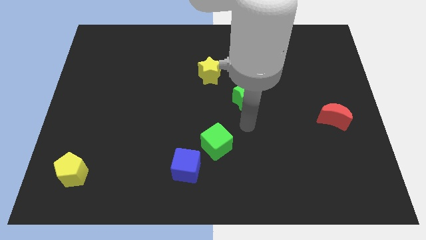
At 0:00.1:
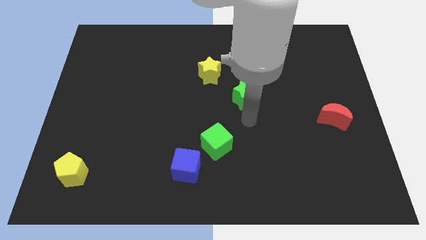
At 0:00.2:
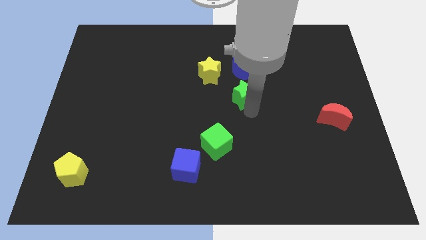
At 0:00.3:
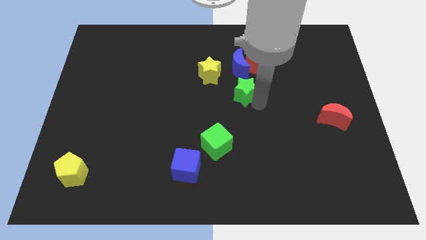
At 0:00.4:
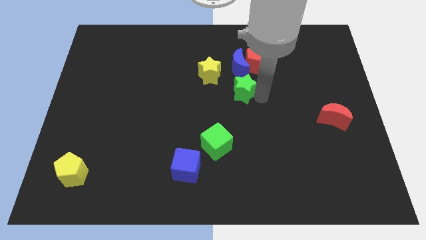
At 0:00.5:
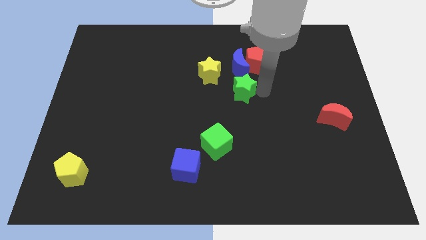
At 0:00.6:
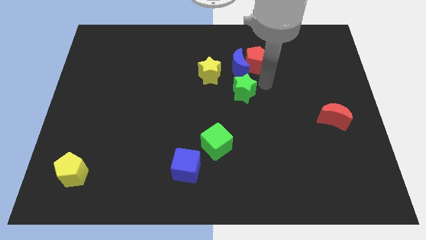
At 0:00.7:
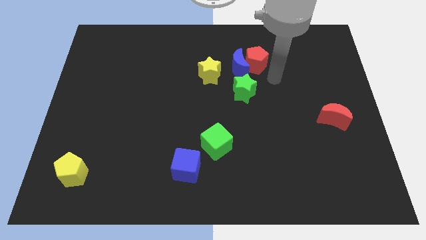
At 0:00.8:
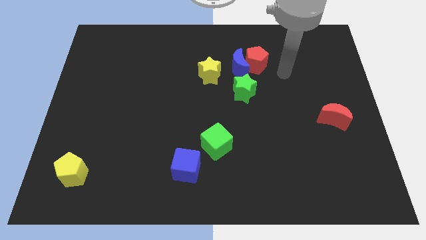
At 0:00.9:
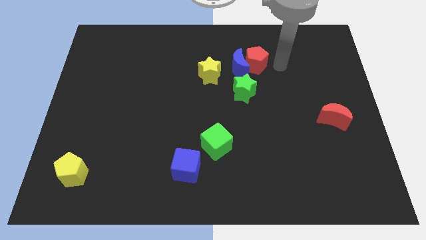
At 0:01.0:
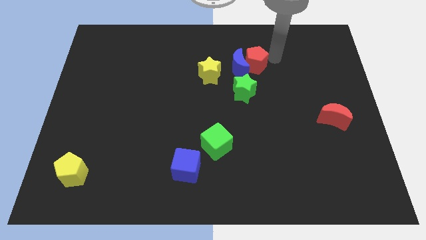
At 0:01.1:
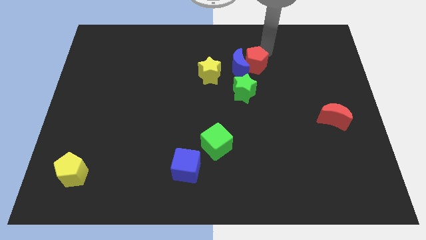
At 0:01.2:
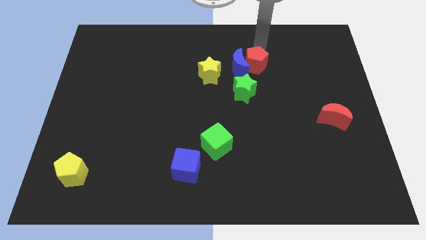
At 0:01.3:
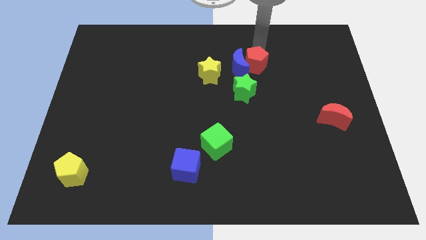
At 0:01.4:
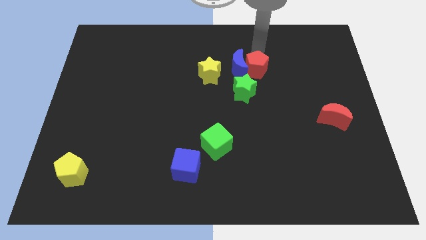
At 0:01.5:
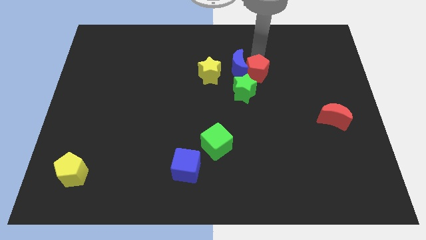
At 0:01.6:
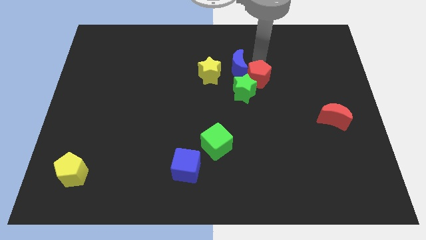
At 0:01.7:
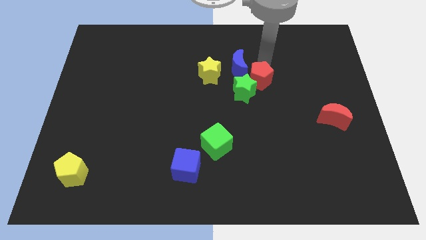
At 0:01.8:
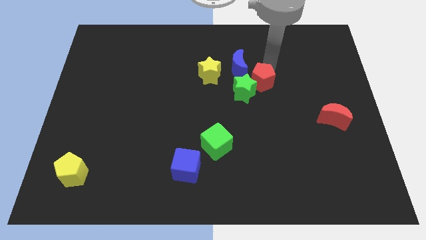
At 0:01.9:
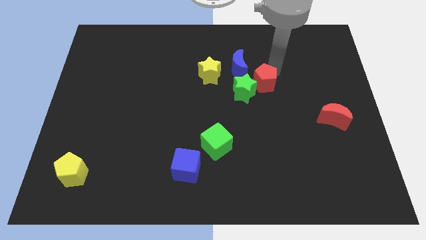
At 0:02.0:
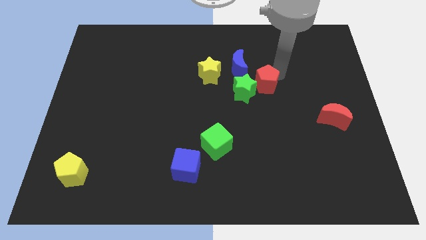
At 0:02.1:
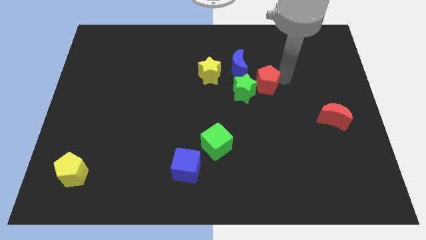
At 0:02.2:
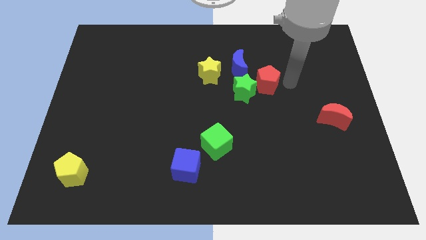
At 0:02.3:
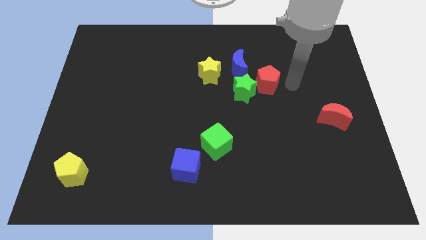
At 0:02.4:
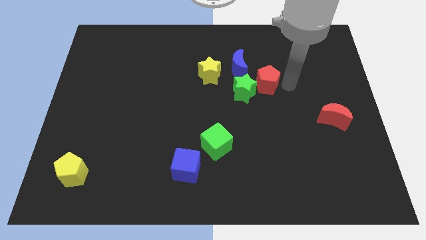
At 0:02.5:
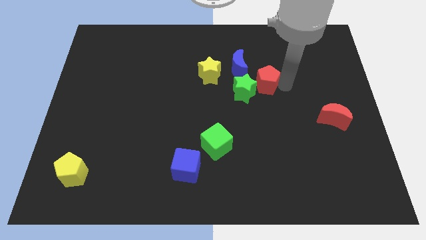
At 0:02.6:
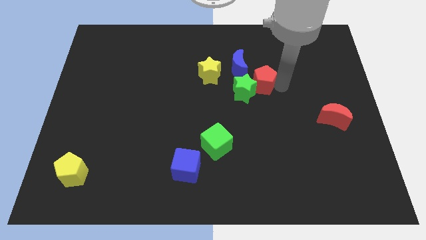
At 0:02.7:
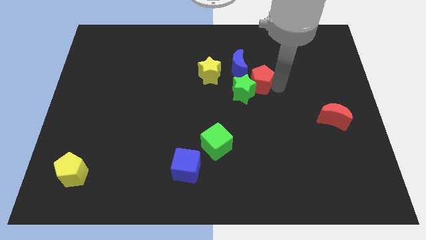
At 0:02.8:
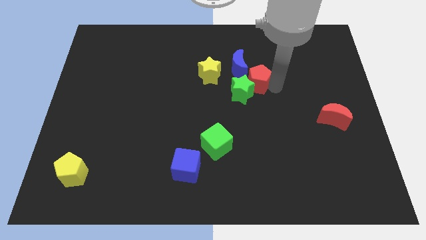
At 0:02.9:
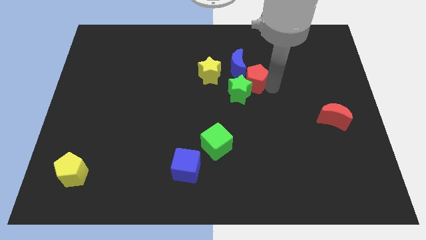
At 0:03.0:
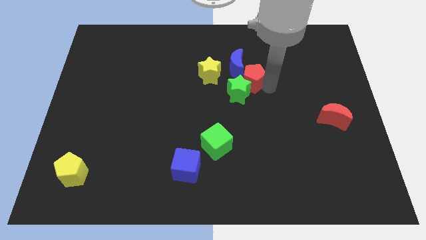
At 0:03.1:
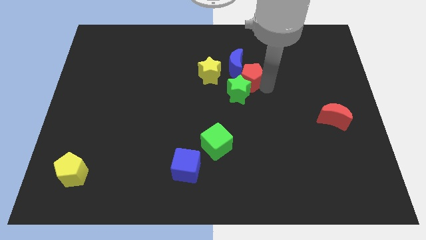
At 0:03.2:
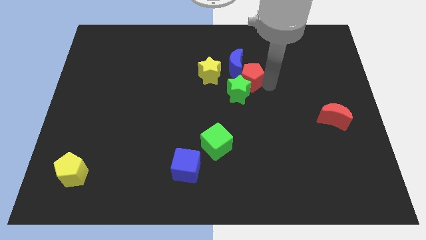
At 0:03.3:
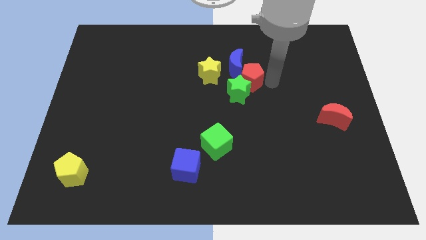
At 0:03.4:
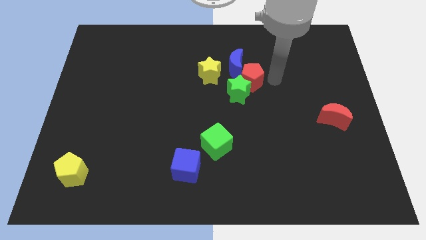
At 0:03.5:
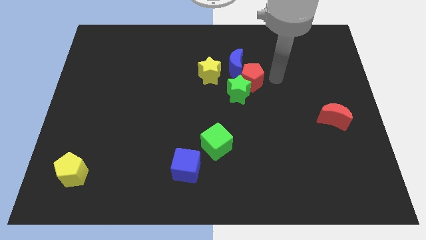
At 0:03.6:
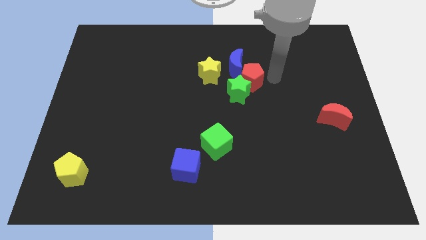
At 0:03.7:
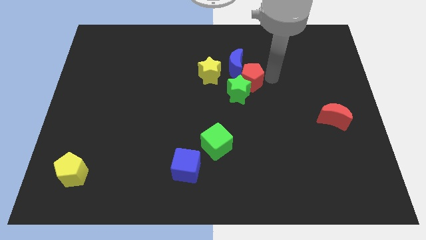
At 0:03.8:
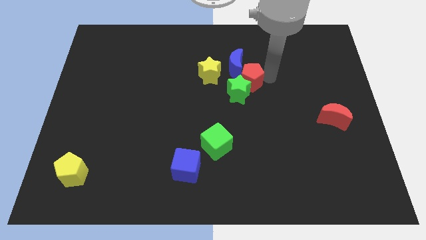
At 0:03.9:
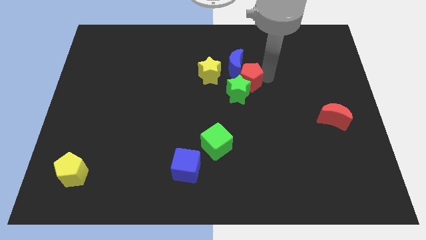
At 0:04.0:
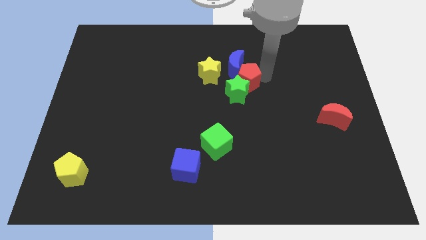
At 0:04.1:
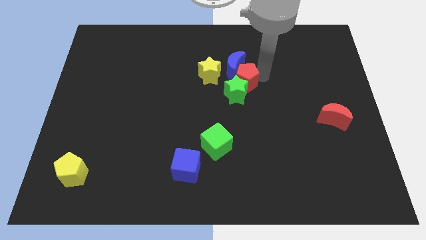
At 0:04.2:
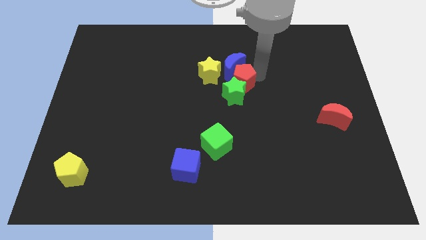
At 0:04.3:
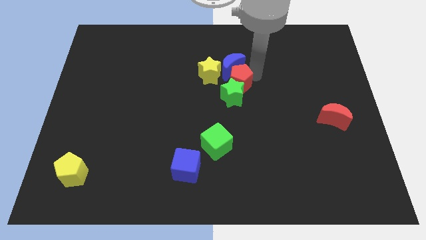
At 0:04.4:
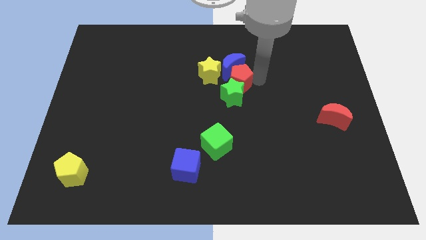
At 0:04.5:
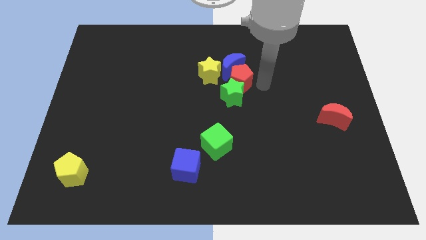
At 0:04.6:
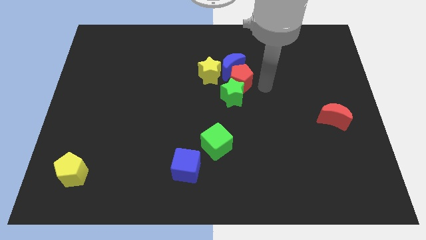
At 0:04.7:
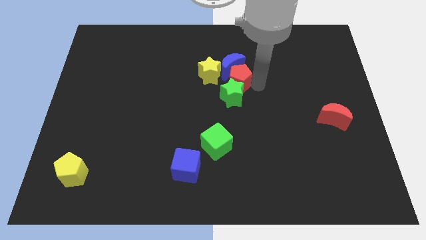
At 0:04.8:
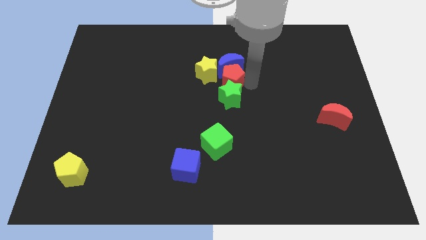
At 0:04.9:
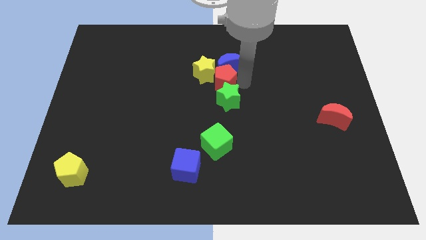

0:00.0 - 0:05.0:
put the red pentagon towards the yellow star

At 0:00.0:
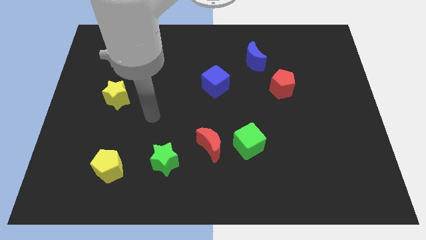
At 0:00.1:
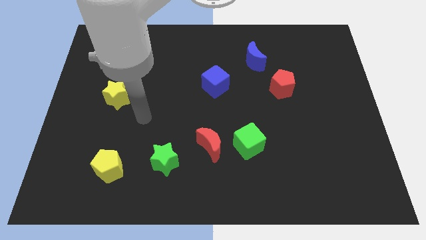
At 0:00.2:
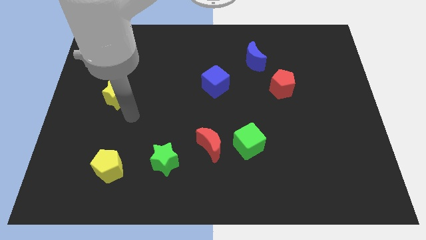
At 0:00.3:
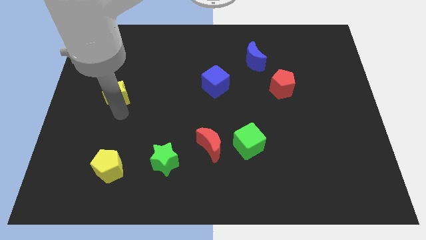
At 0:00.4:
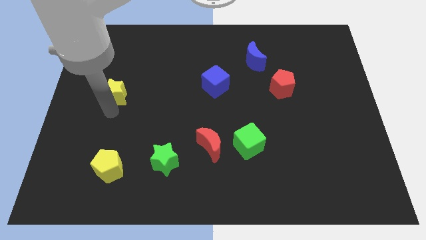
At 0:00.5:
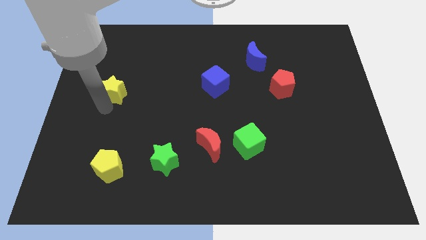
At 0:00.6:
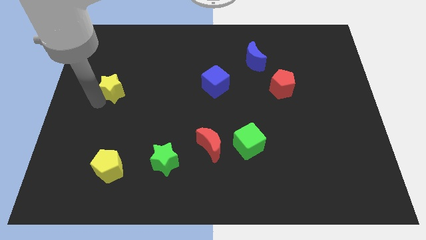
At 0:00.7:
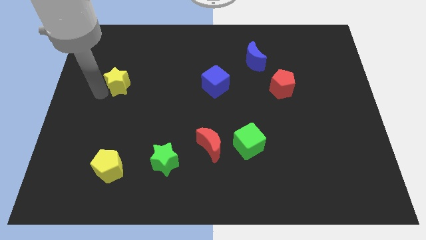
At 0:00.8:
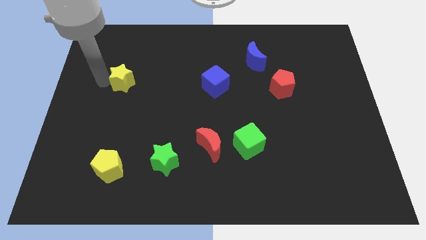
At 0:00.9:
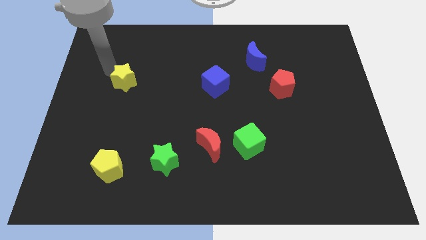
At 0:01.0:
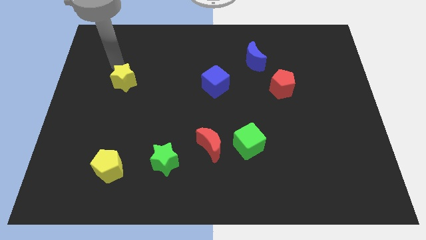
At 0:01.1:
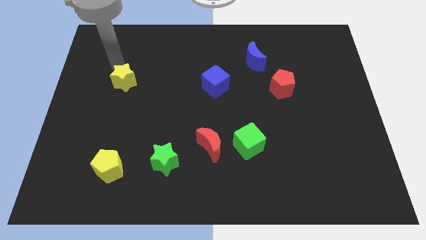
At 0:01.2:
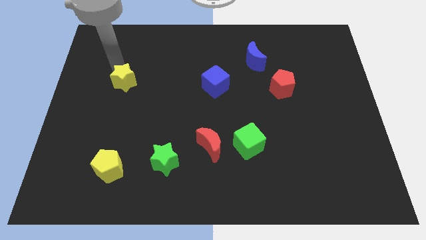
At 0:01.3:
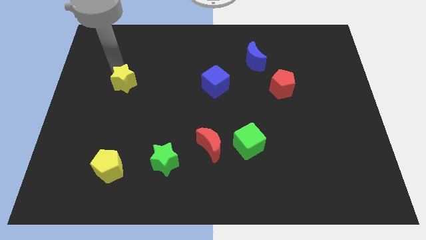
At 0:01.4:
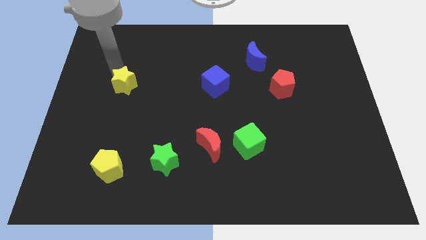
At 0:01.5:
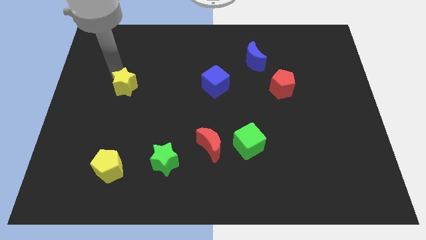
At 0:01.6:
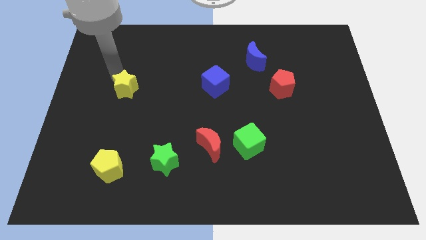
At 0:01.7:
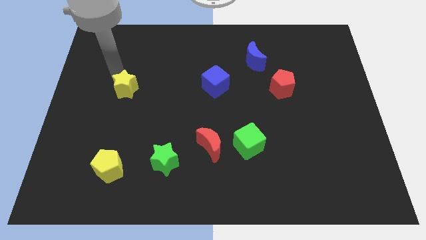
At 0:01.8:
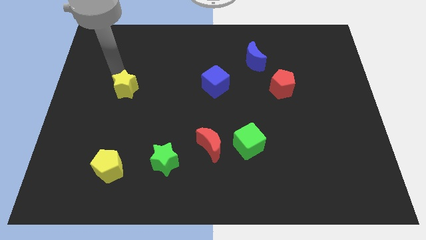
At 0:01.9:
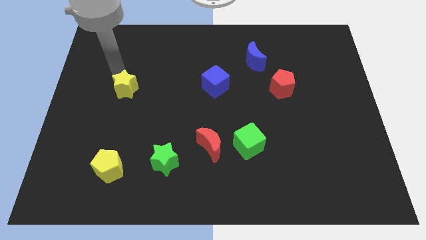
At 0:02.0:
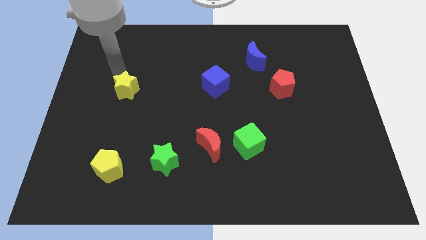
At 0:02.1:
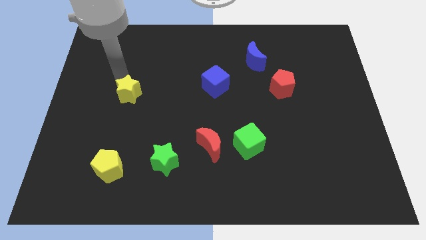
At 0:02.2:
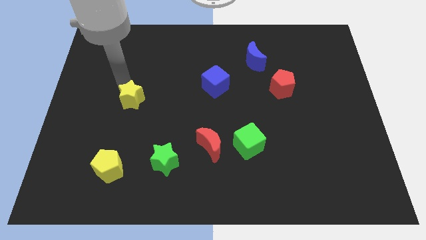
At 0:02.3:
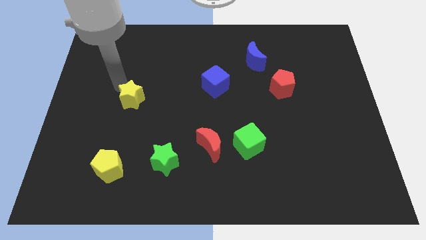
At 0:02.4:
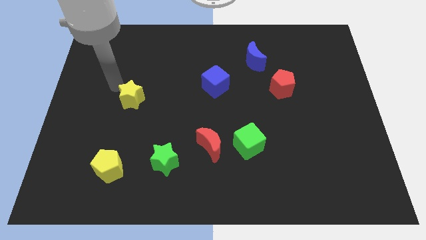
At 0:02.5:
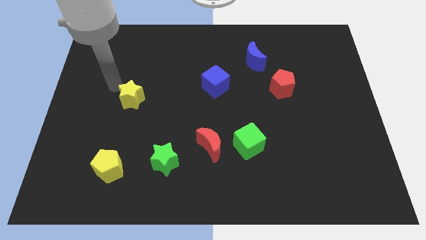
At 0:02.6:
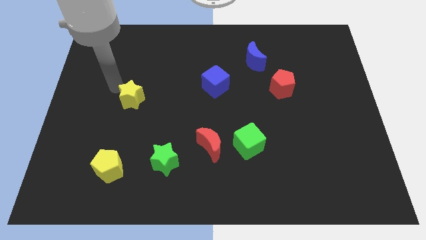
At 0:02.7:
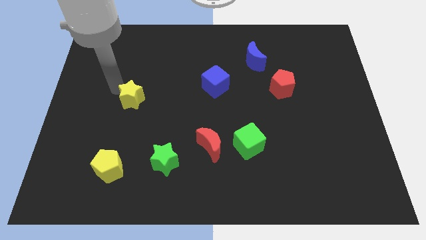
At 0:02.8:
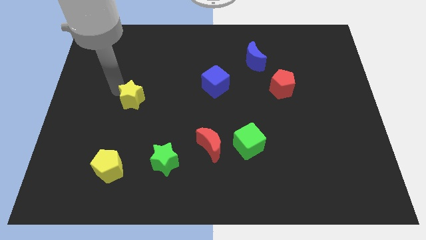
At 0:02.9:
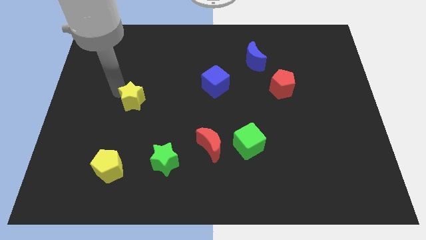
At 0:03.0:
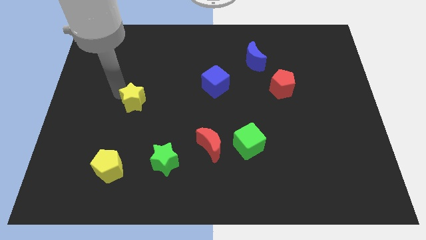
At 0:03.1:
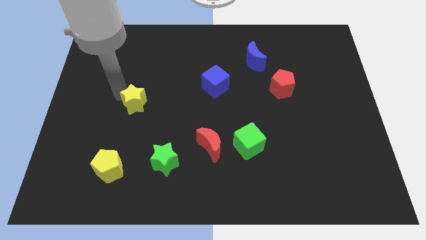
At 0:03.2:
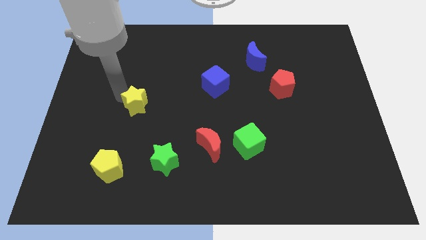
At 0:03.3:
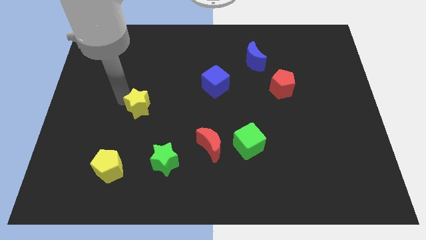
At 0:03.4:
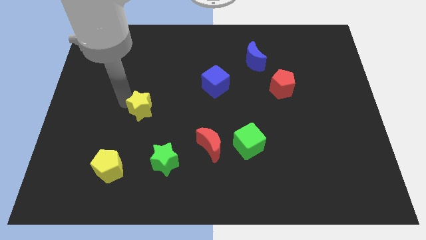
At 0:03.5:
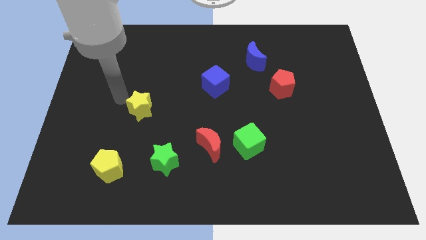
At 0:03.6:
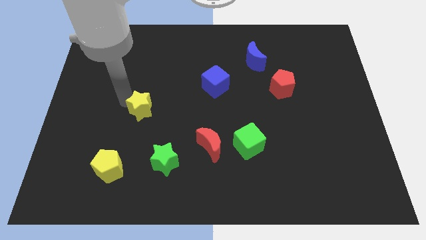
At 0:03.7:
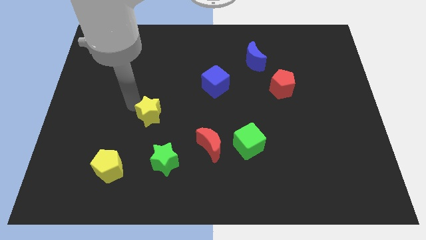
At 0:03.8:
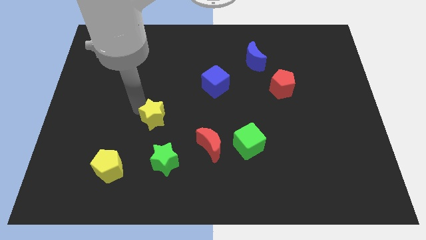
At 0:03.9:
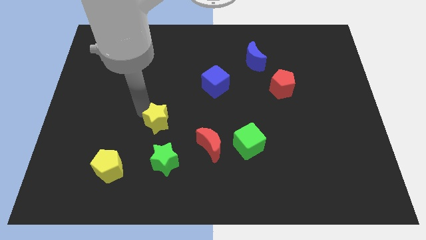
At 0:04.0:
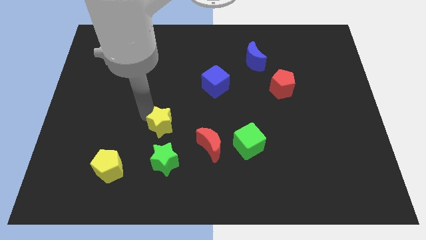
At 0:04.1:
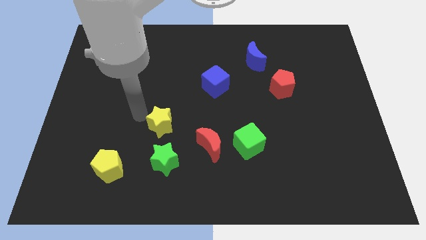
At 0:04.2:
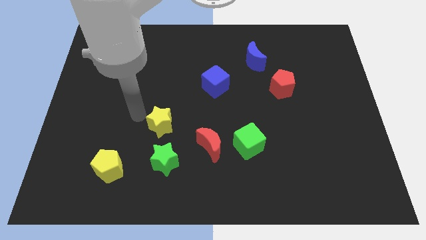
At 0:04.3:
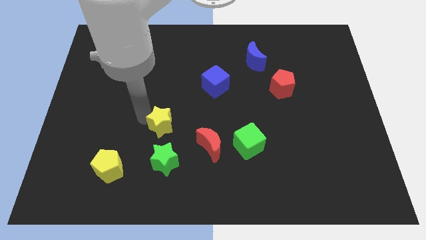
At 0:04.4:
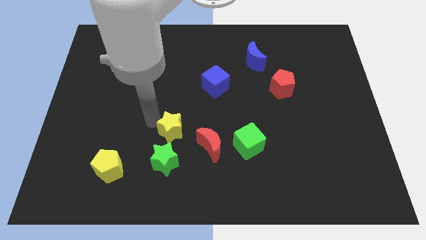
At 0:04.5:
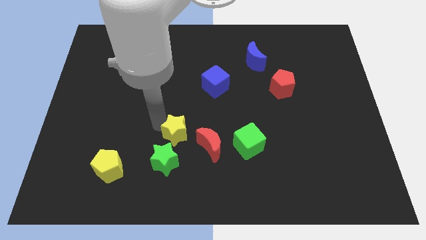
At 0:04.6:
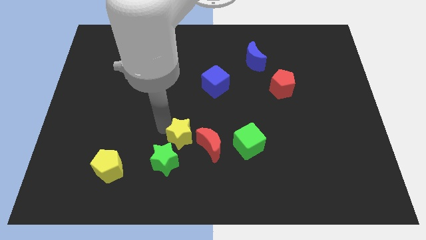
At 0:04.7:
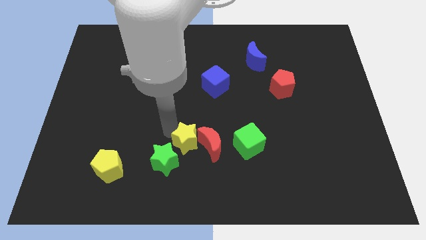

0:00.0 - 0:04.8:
slide the yellow star next to the red moon
